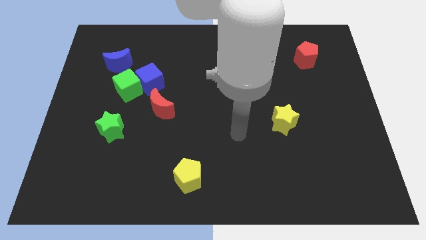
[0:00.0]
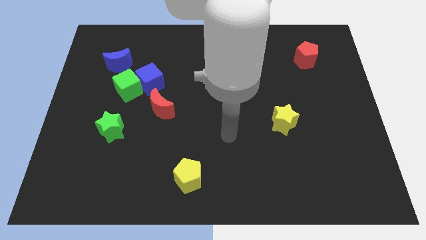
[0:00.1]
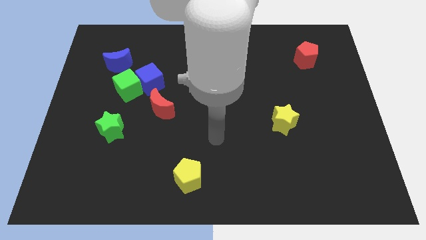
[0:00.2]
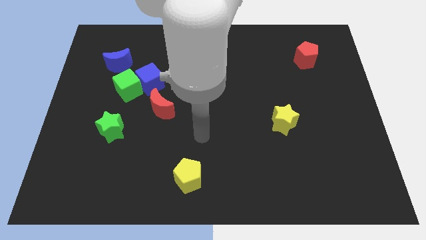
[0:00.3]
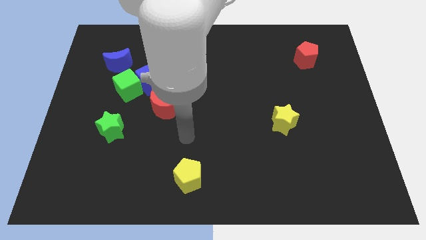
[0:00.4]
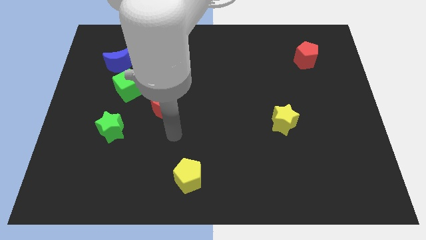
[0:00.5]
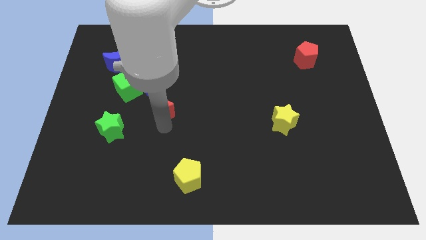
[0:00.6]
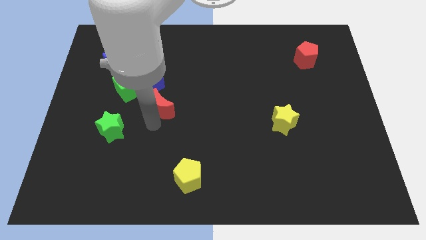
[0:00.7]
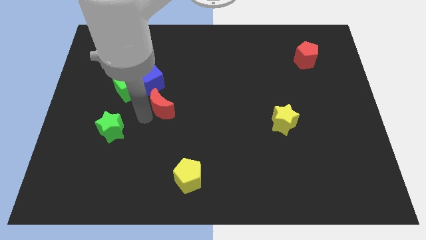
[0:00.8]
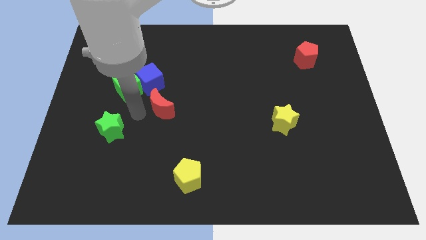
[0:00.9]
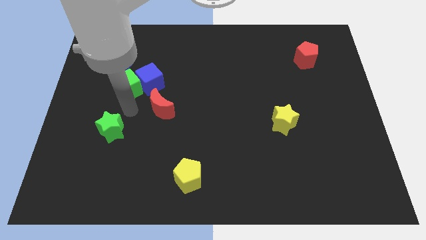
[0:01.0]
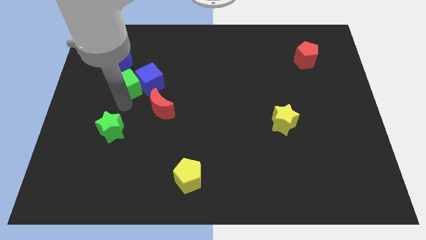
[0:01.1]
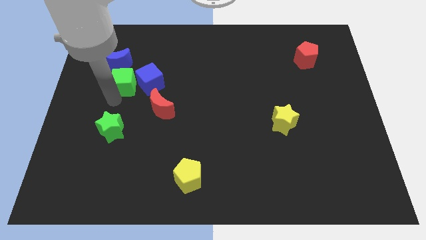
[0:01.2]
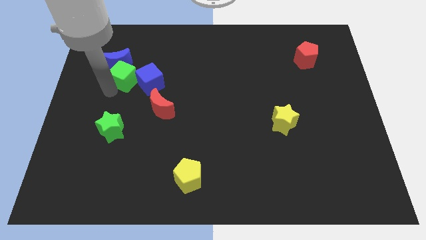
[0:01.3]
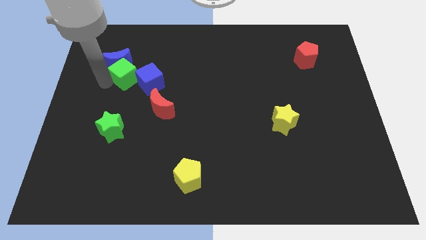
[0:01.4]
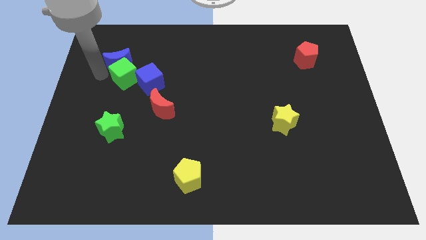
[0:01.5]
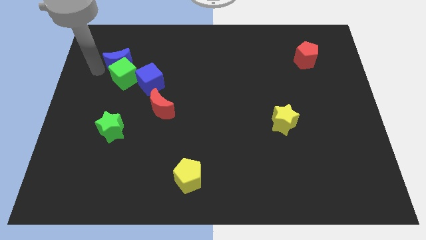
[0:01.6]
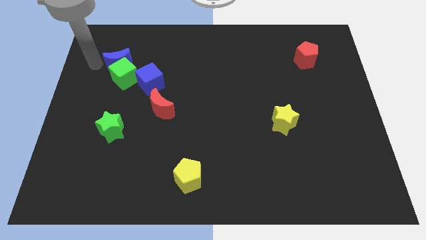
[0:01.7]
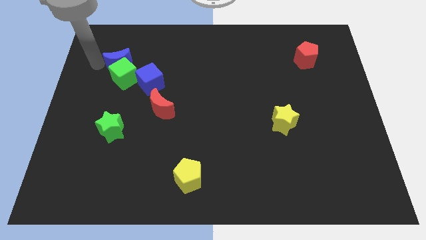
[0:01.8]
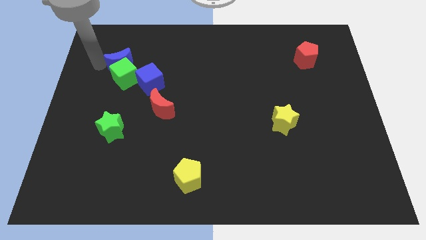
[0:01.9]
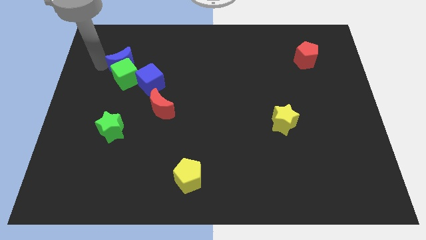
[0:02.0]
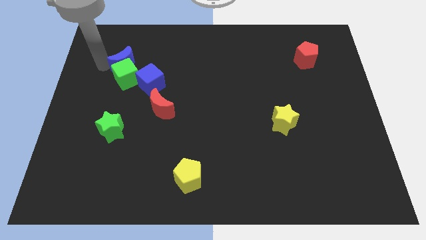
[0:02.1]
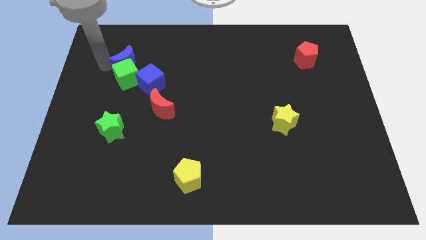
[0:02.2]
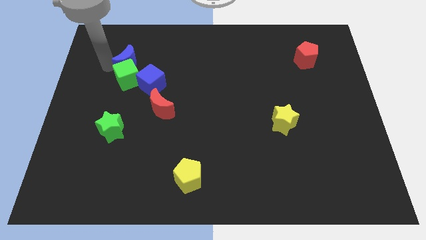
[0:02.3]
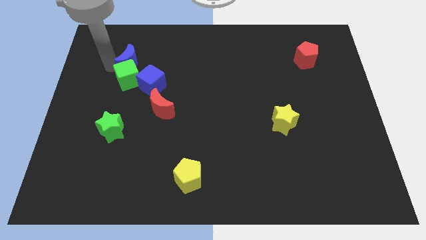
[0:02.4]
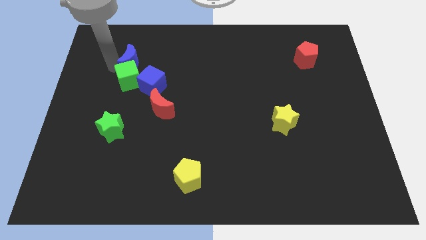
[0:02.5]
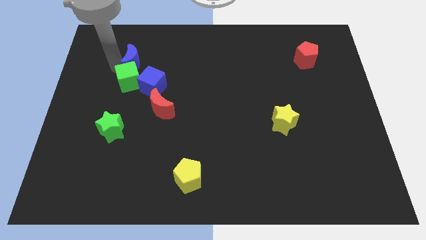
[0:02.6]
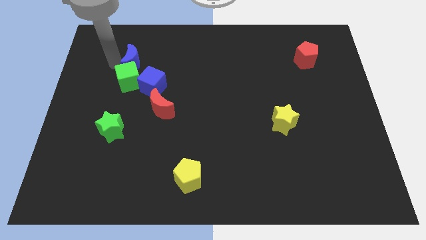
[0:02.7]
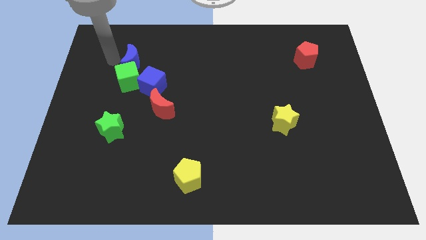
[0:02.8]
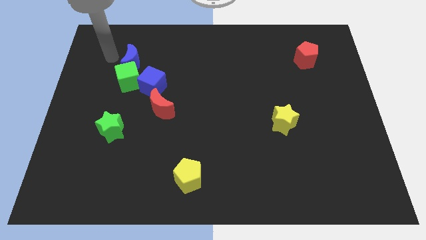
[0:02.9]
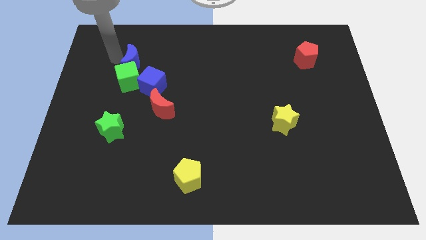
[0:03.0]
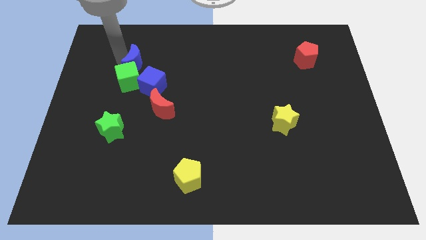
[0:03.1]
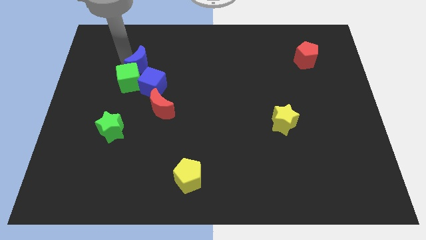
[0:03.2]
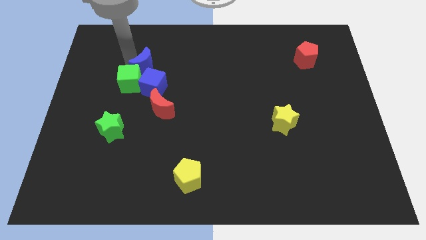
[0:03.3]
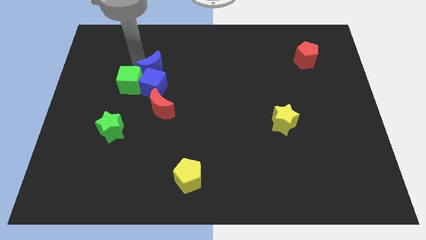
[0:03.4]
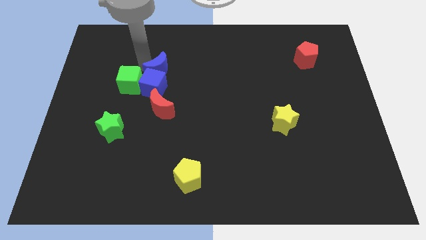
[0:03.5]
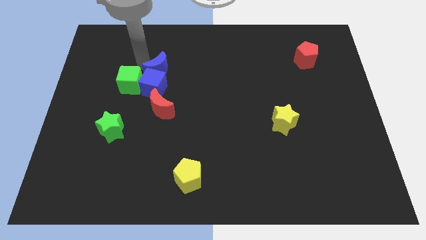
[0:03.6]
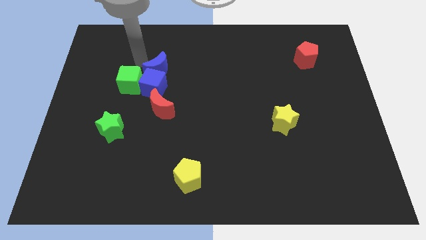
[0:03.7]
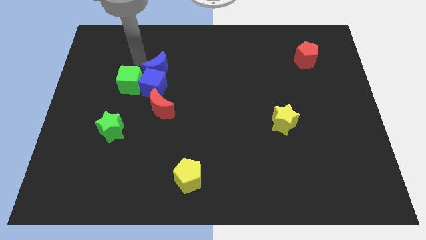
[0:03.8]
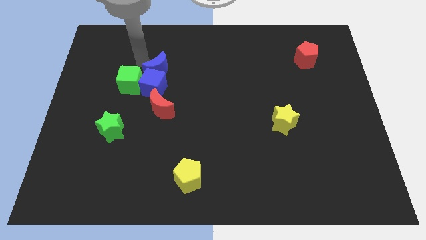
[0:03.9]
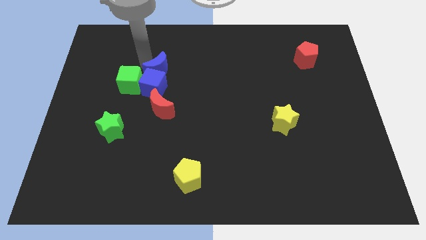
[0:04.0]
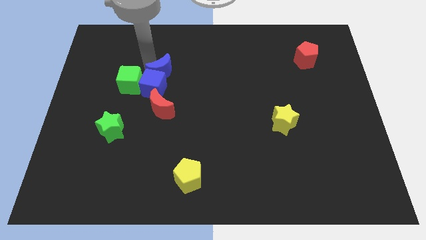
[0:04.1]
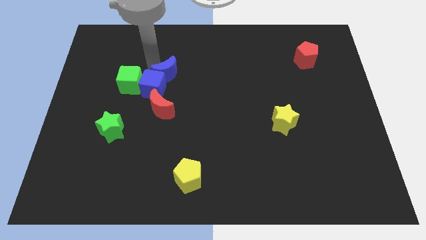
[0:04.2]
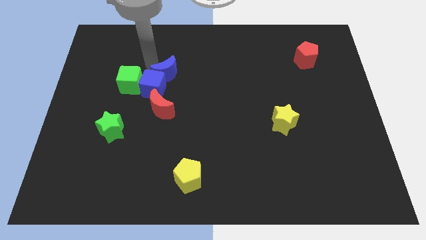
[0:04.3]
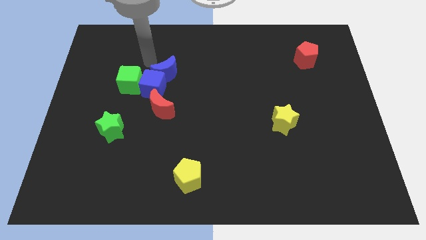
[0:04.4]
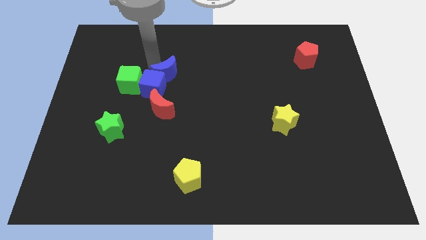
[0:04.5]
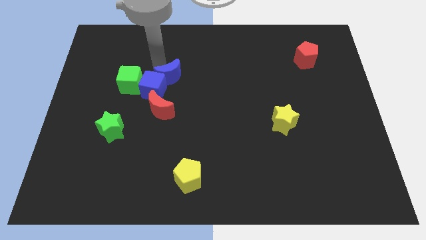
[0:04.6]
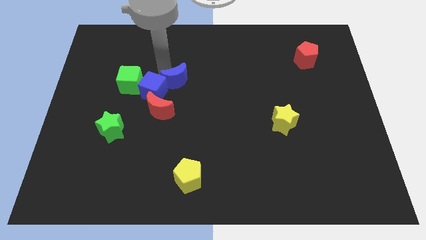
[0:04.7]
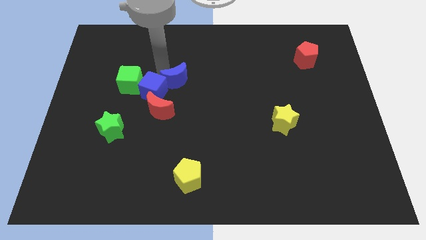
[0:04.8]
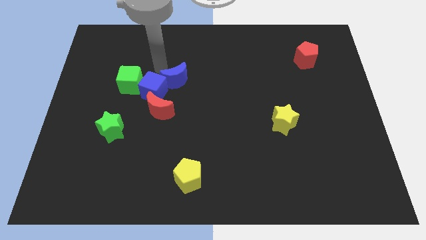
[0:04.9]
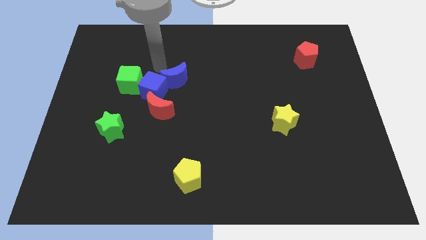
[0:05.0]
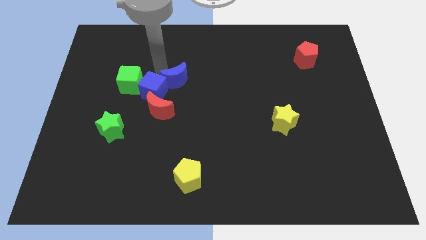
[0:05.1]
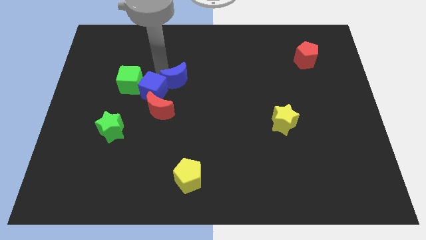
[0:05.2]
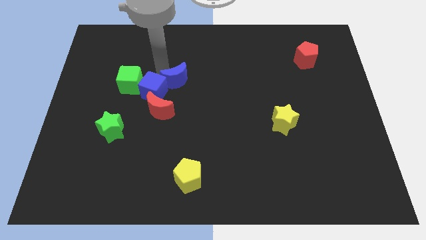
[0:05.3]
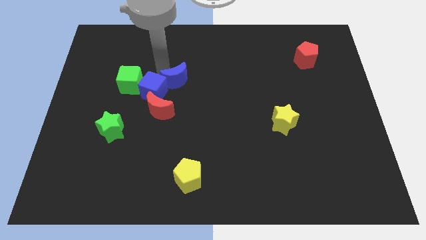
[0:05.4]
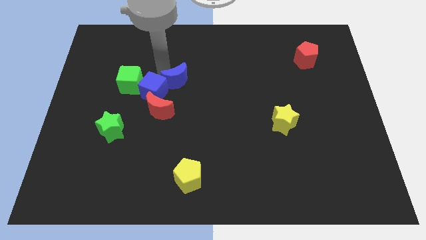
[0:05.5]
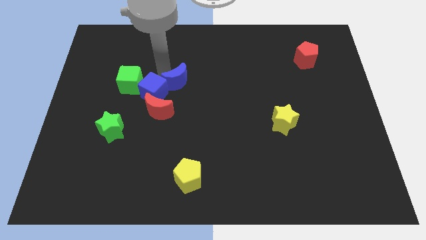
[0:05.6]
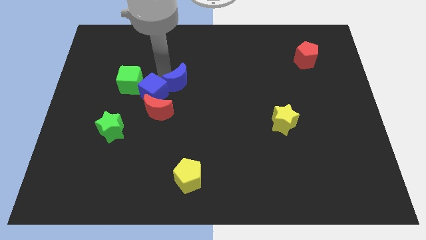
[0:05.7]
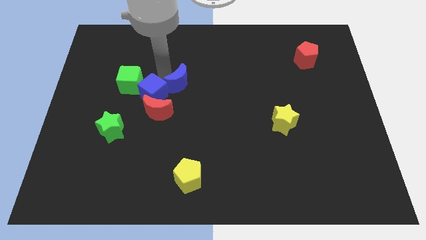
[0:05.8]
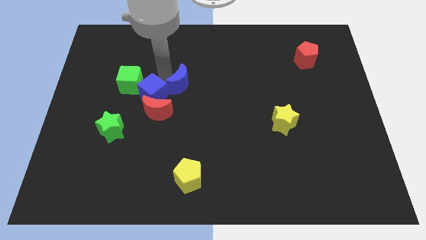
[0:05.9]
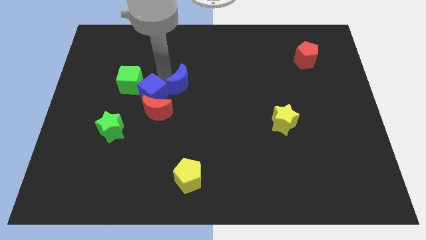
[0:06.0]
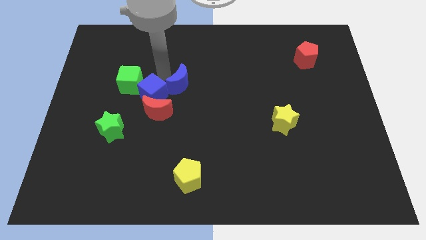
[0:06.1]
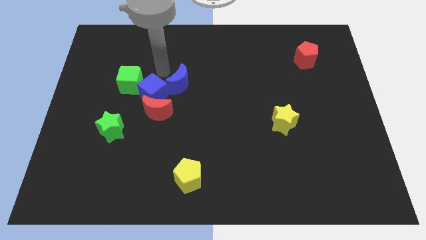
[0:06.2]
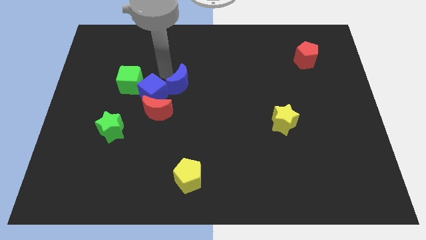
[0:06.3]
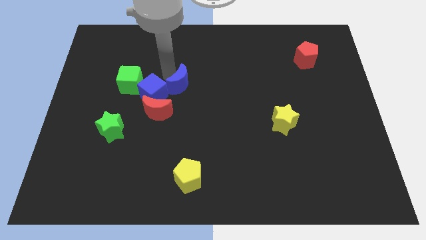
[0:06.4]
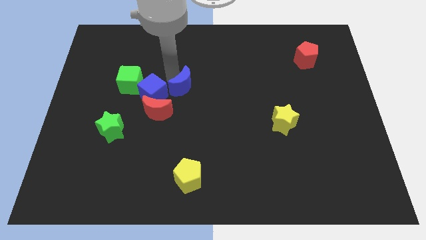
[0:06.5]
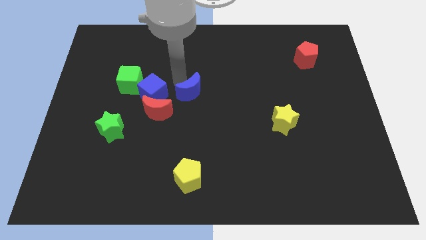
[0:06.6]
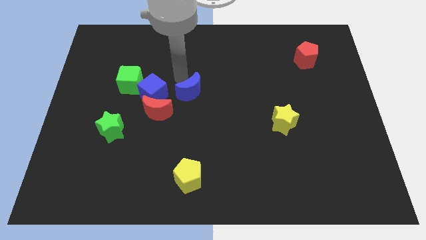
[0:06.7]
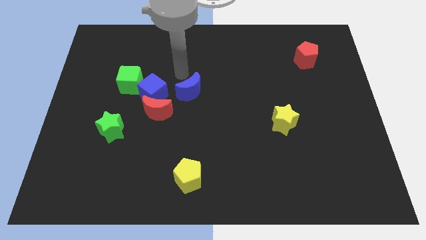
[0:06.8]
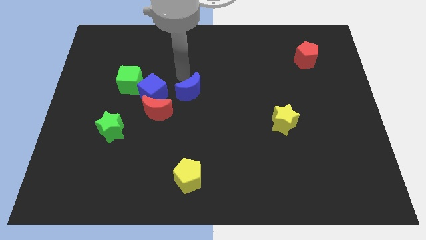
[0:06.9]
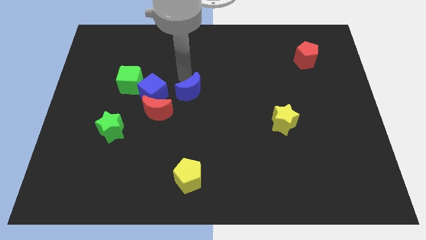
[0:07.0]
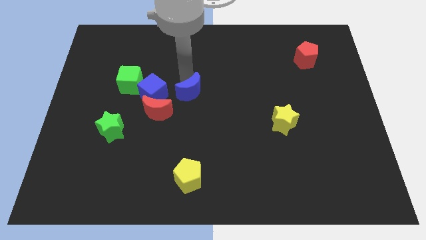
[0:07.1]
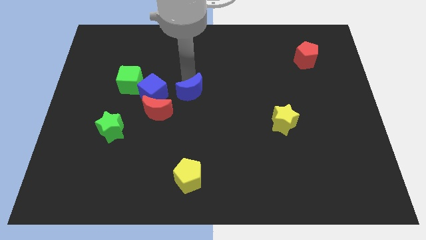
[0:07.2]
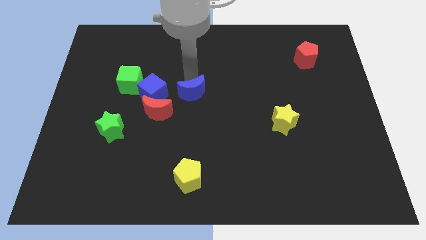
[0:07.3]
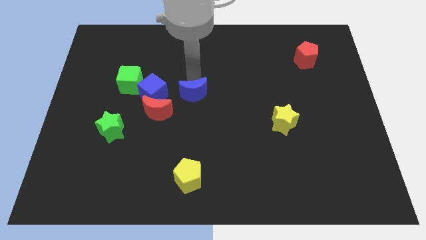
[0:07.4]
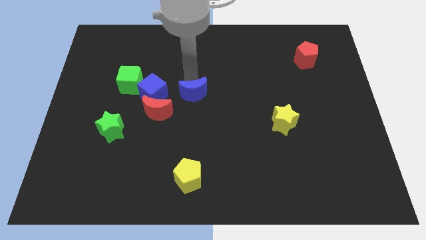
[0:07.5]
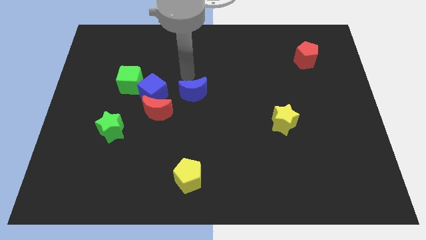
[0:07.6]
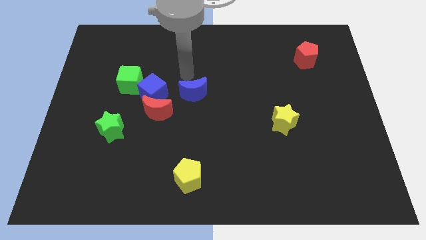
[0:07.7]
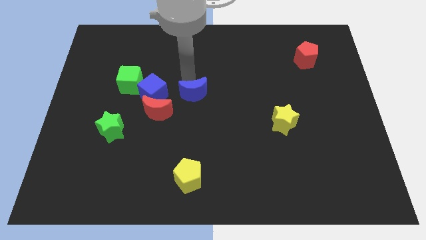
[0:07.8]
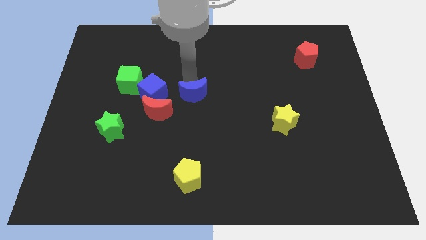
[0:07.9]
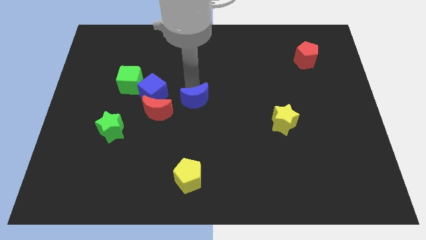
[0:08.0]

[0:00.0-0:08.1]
move the blue moon just right of the red moon
